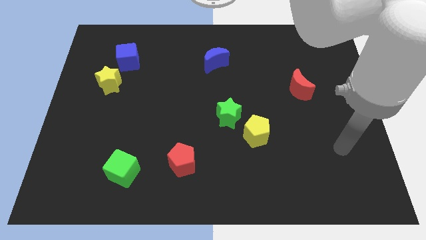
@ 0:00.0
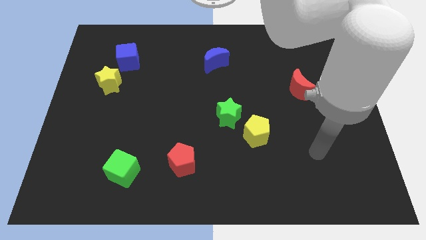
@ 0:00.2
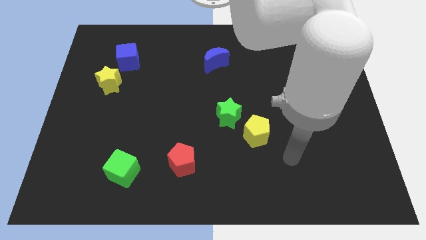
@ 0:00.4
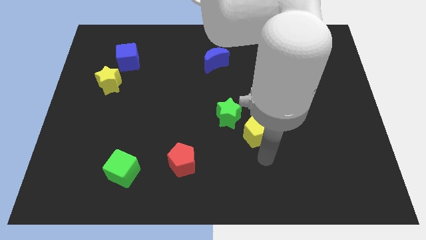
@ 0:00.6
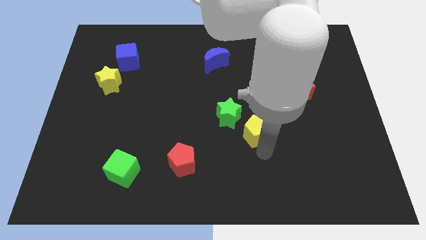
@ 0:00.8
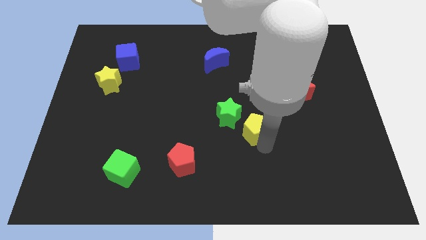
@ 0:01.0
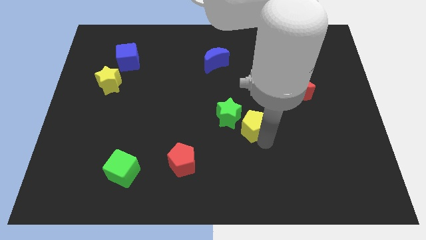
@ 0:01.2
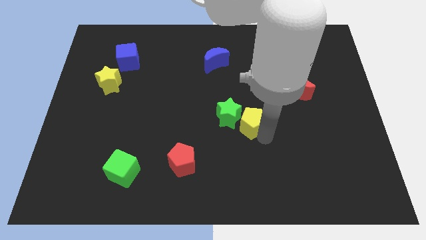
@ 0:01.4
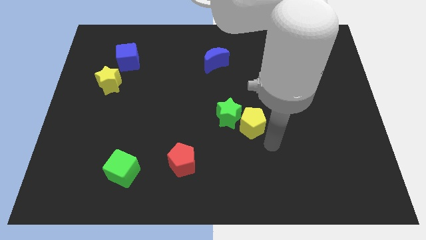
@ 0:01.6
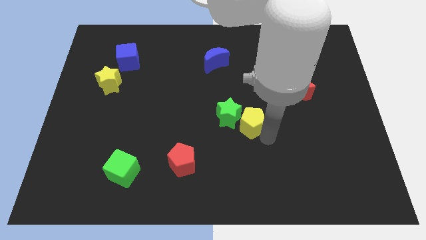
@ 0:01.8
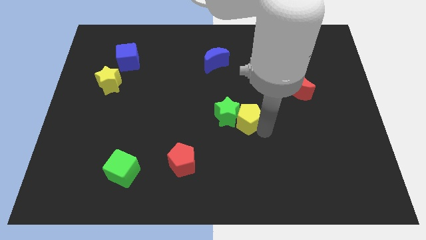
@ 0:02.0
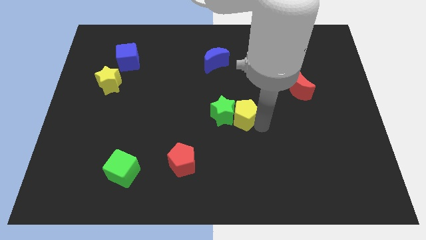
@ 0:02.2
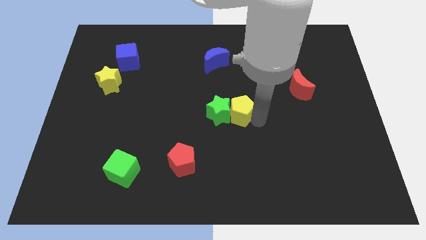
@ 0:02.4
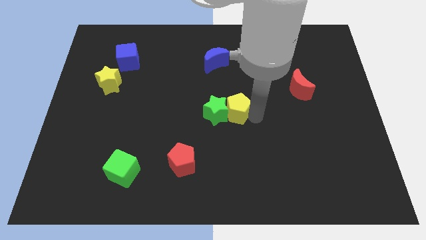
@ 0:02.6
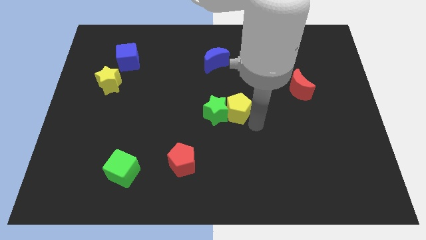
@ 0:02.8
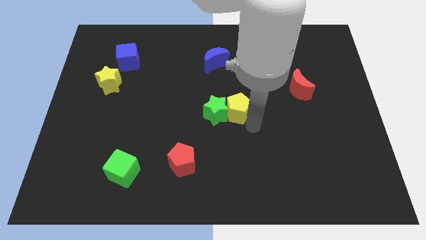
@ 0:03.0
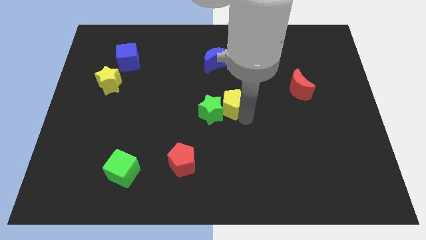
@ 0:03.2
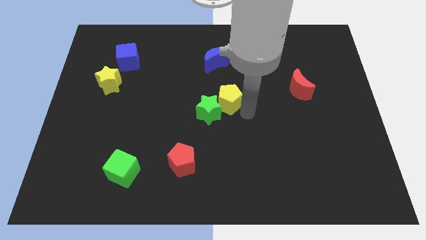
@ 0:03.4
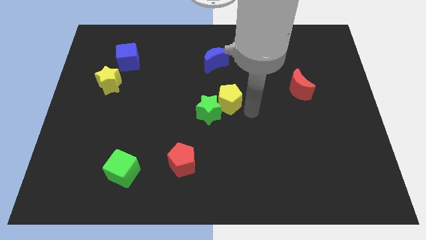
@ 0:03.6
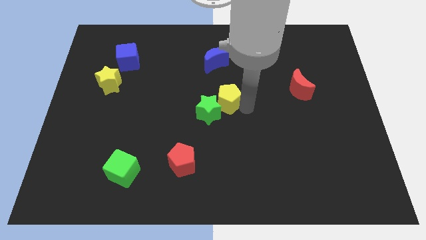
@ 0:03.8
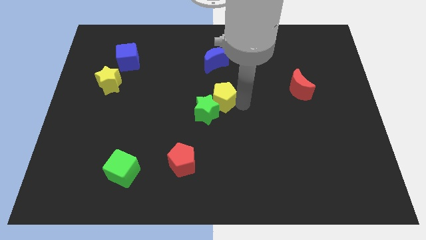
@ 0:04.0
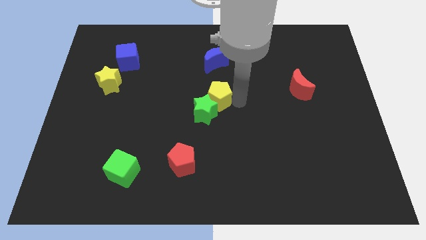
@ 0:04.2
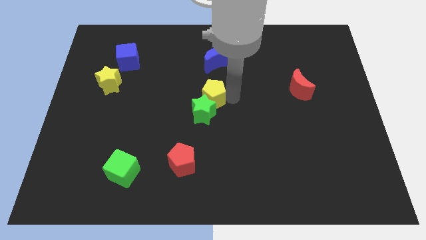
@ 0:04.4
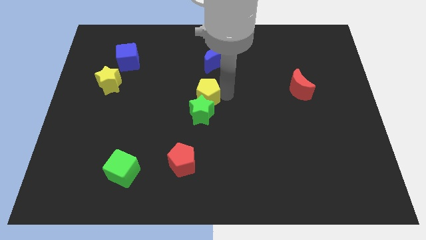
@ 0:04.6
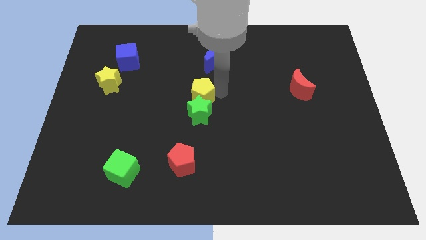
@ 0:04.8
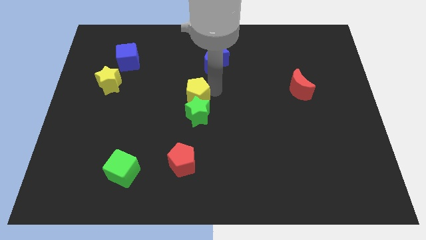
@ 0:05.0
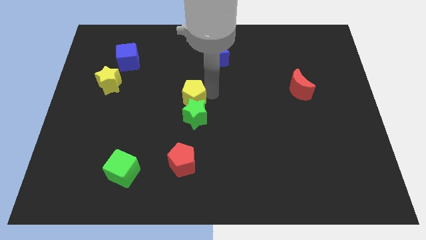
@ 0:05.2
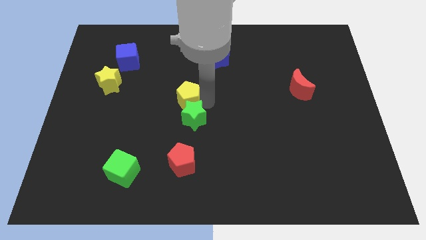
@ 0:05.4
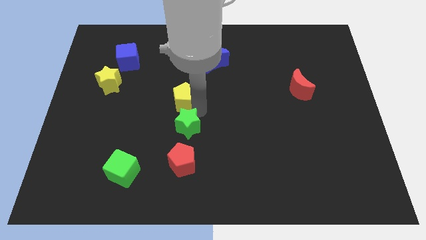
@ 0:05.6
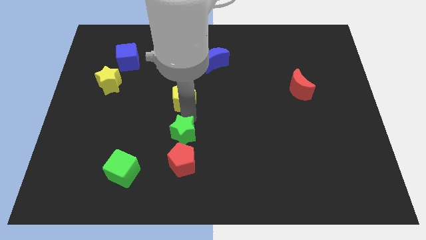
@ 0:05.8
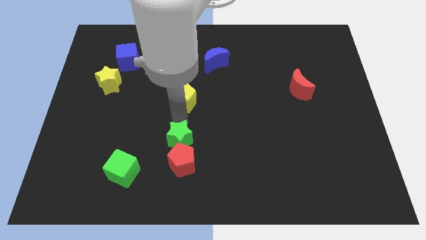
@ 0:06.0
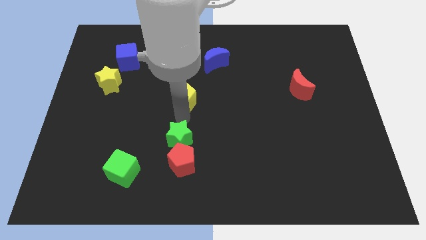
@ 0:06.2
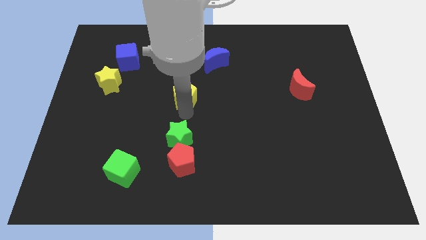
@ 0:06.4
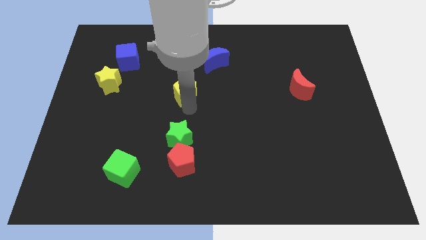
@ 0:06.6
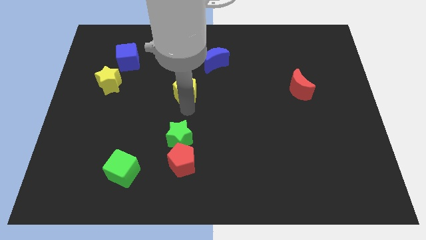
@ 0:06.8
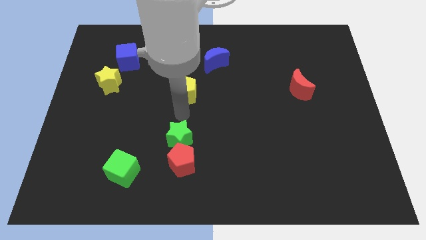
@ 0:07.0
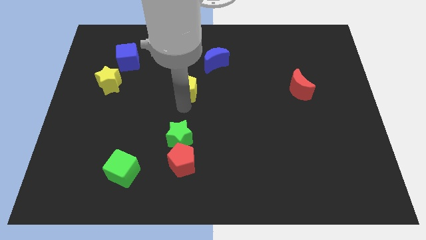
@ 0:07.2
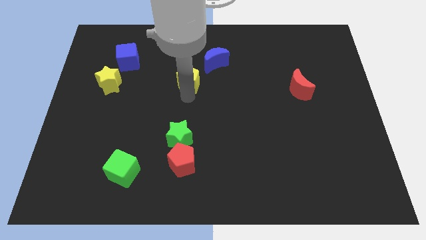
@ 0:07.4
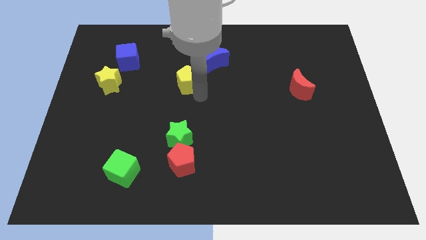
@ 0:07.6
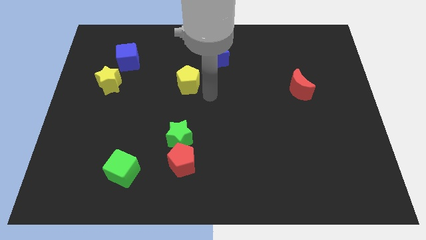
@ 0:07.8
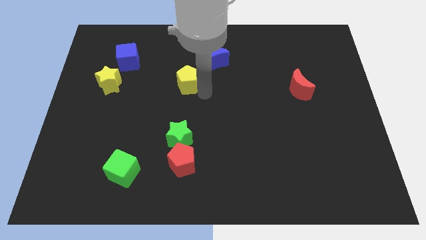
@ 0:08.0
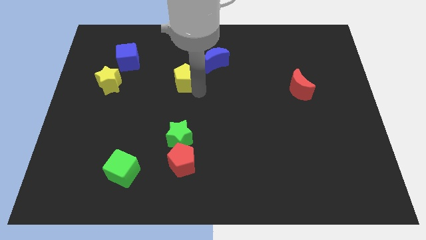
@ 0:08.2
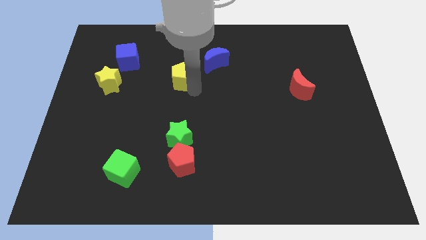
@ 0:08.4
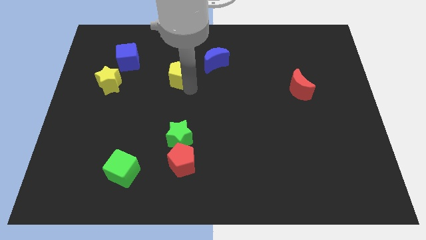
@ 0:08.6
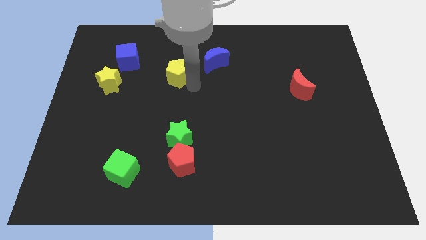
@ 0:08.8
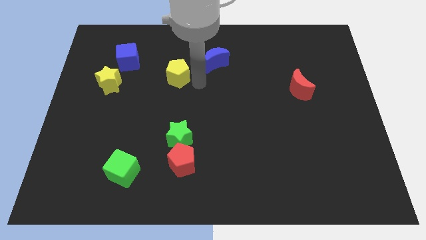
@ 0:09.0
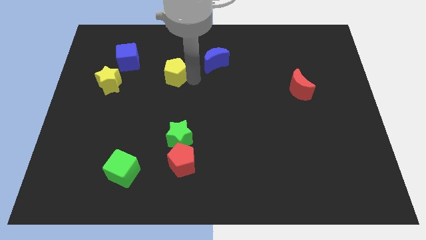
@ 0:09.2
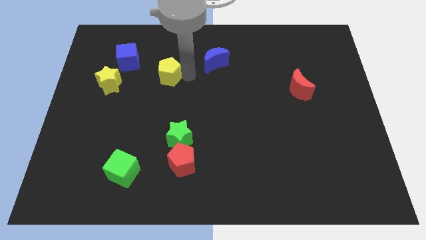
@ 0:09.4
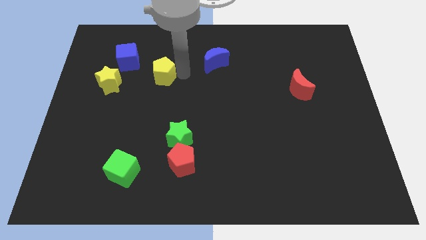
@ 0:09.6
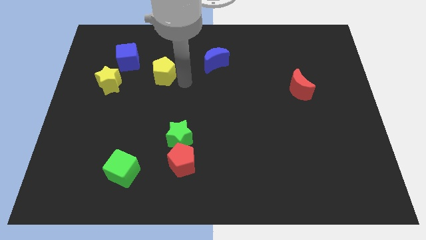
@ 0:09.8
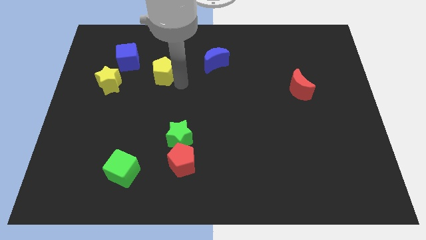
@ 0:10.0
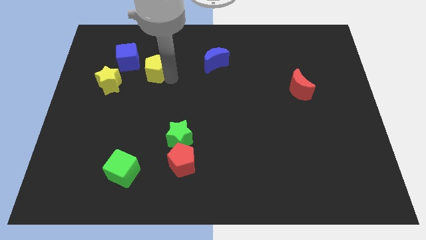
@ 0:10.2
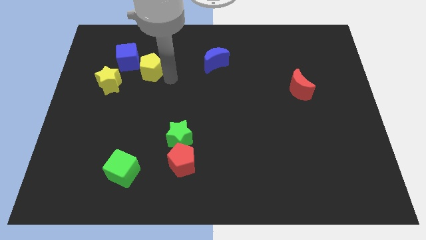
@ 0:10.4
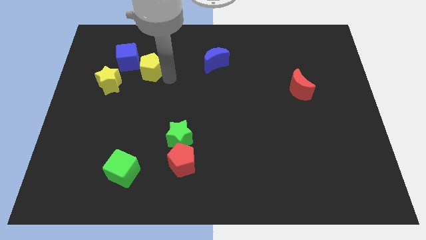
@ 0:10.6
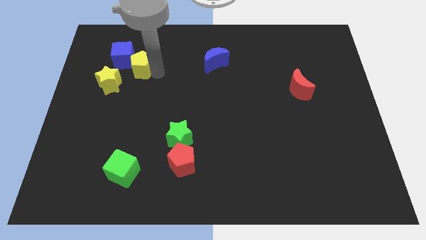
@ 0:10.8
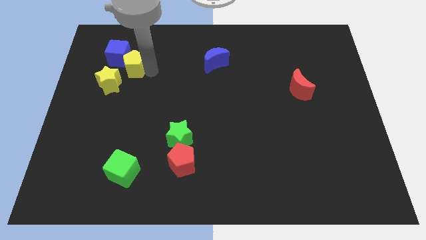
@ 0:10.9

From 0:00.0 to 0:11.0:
push the yellow pentagon close to the blue cube

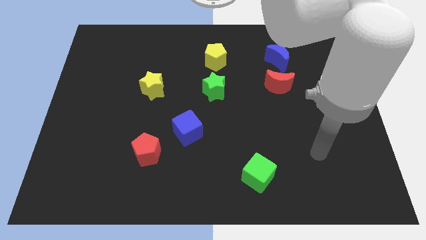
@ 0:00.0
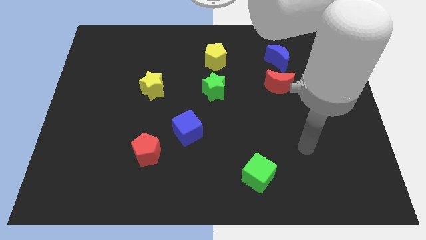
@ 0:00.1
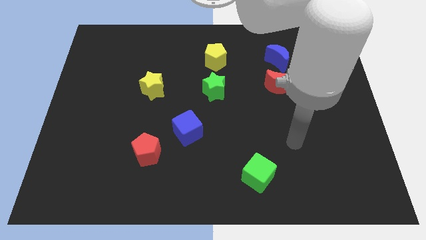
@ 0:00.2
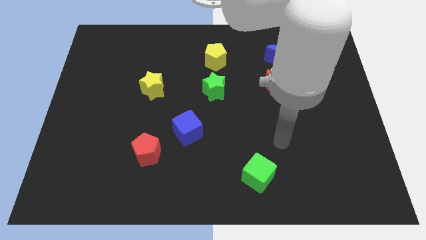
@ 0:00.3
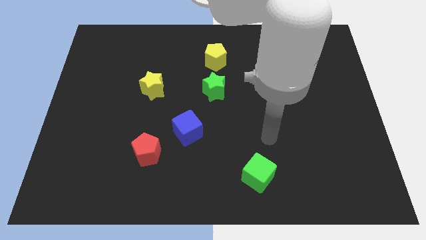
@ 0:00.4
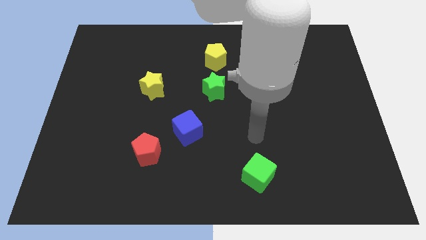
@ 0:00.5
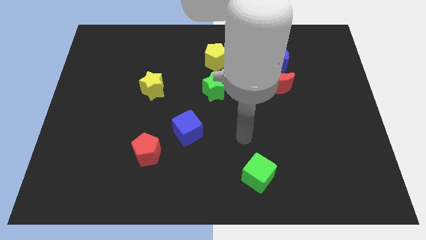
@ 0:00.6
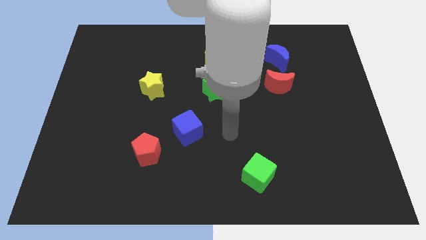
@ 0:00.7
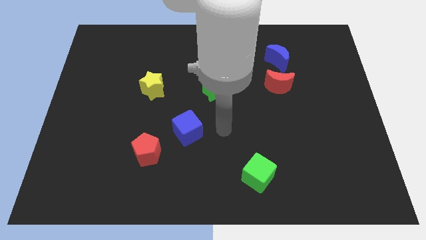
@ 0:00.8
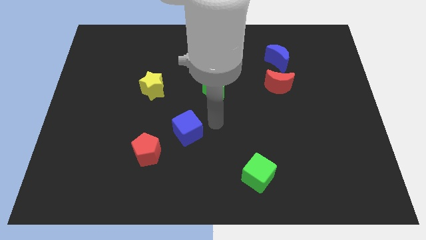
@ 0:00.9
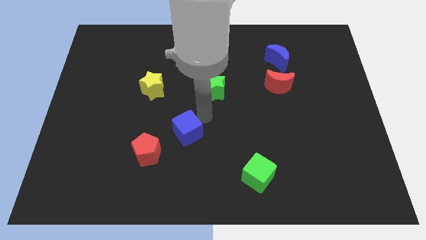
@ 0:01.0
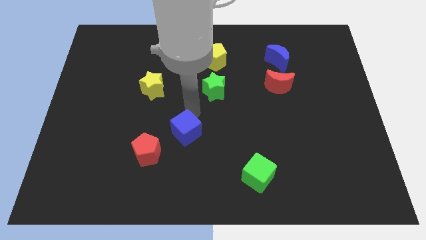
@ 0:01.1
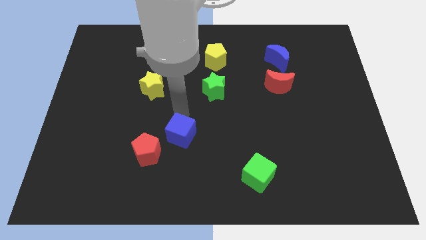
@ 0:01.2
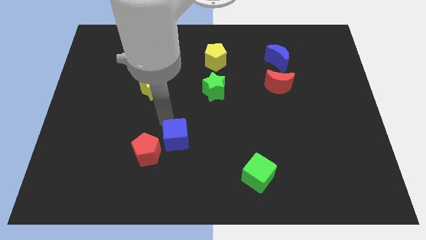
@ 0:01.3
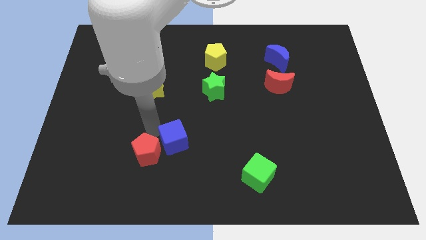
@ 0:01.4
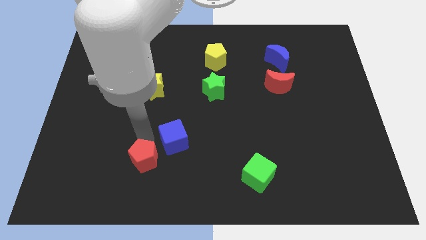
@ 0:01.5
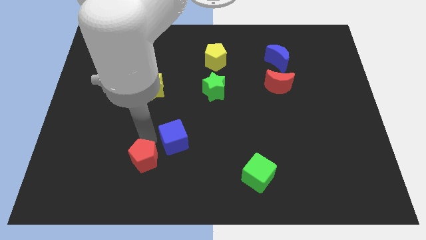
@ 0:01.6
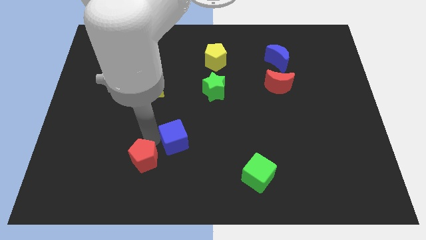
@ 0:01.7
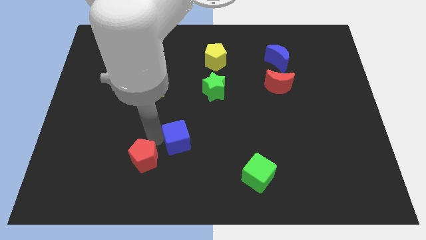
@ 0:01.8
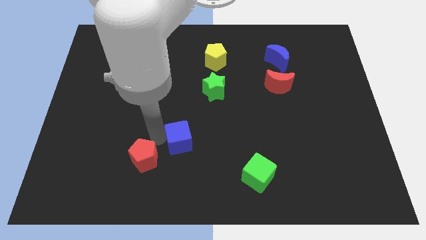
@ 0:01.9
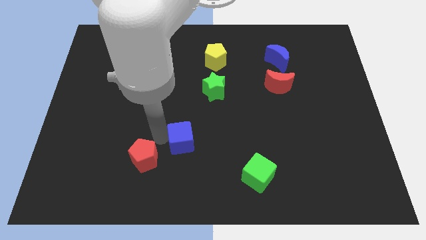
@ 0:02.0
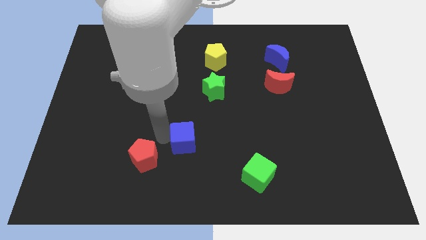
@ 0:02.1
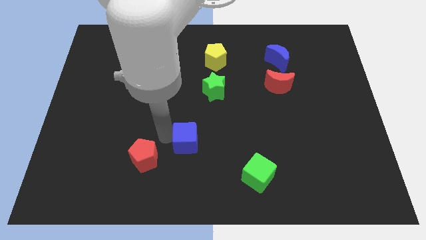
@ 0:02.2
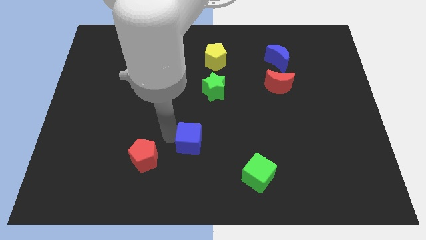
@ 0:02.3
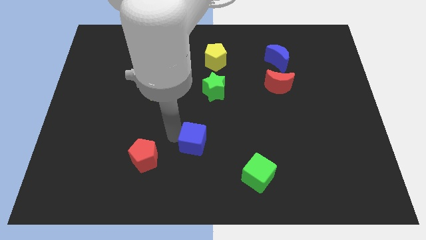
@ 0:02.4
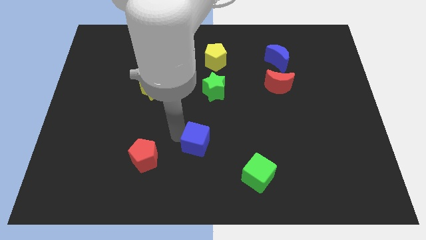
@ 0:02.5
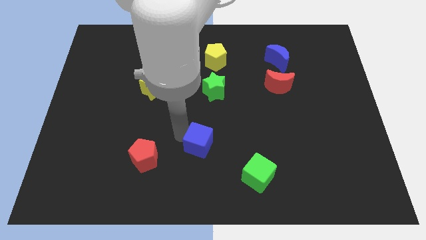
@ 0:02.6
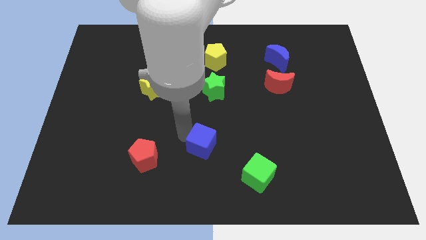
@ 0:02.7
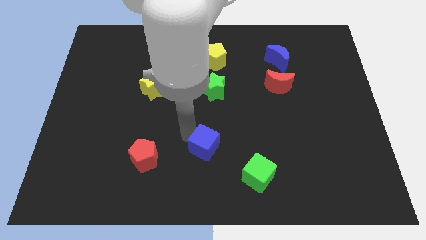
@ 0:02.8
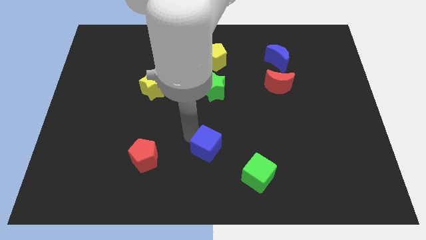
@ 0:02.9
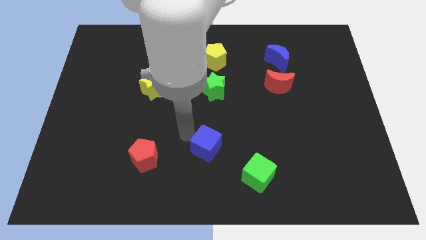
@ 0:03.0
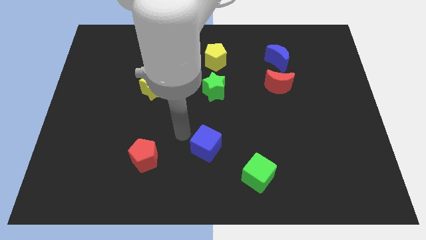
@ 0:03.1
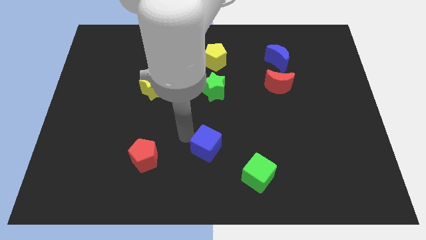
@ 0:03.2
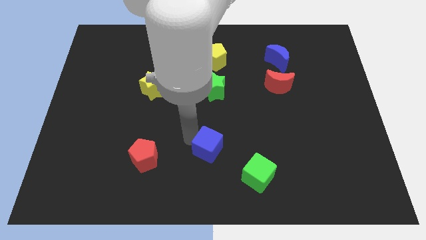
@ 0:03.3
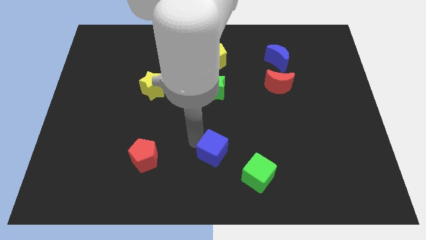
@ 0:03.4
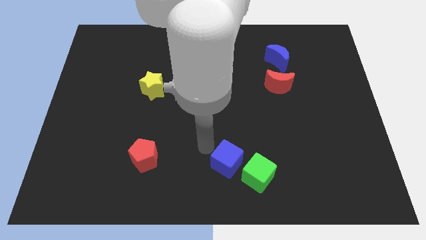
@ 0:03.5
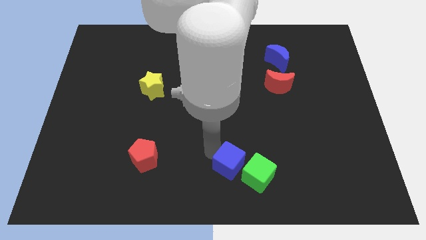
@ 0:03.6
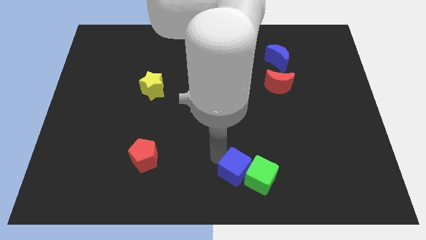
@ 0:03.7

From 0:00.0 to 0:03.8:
move the blue cube towards the green cube
